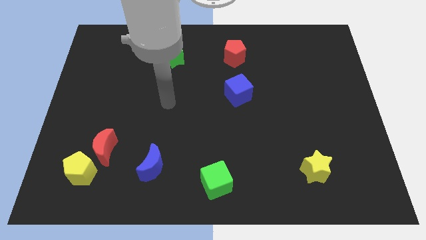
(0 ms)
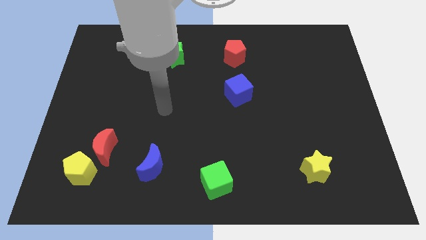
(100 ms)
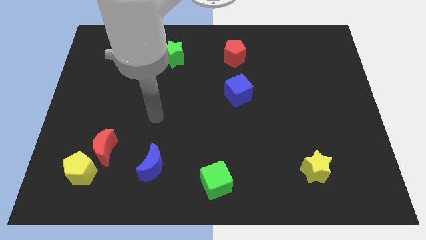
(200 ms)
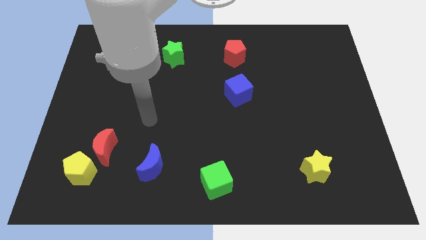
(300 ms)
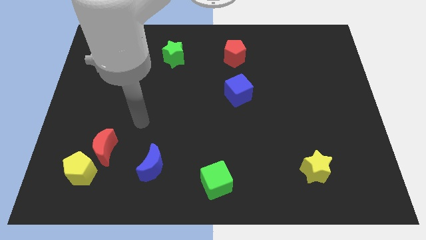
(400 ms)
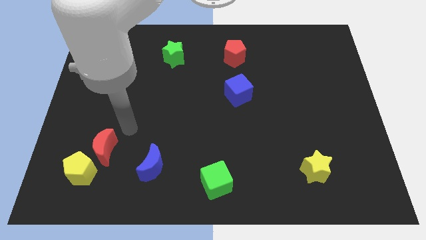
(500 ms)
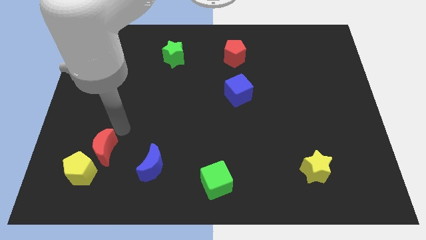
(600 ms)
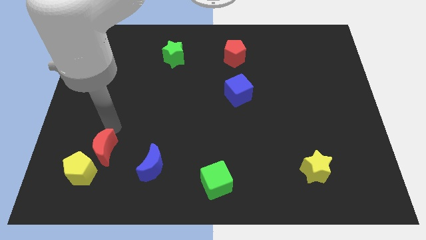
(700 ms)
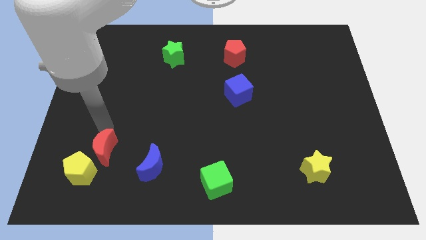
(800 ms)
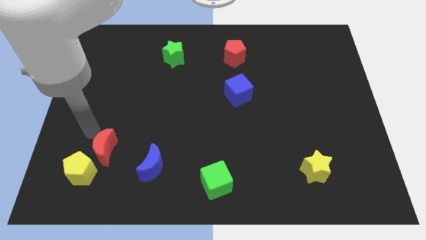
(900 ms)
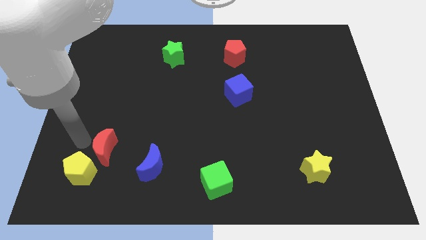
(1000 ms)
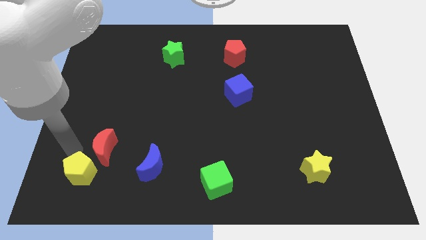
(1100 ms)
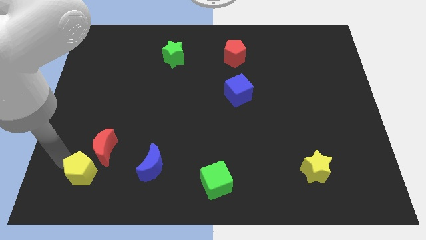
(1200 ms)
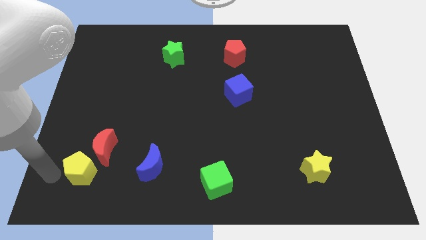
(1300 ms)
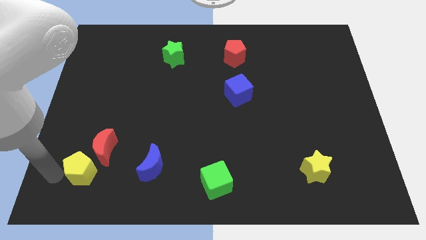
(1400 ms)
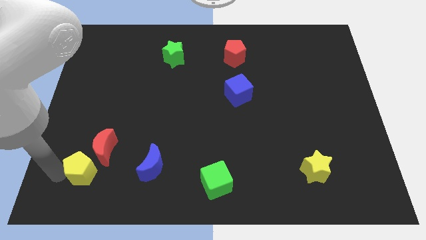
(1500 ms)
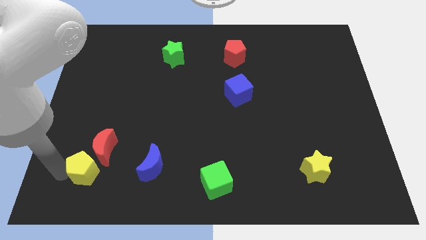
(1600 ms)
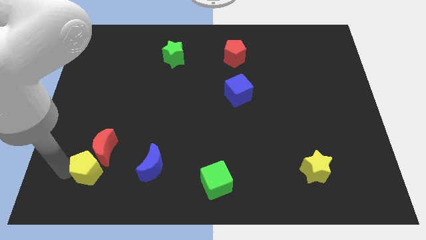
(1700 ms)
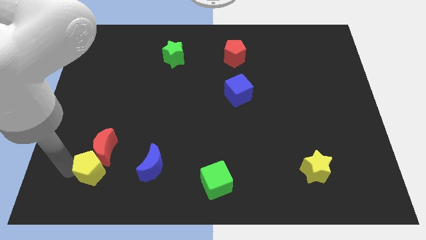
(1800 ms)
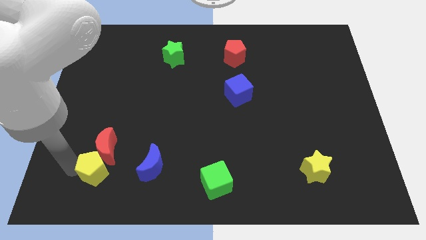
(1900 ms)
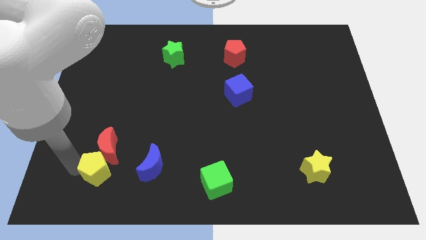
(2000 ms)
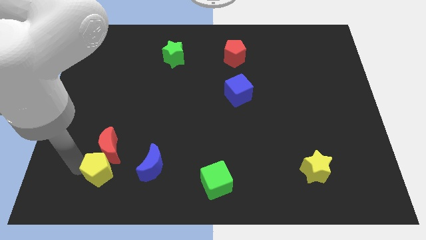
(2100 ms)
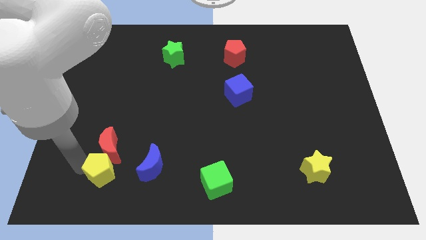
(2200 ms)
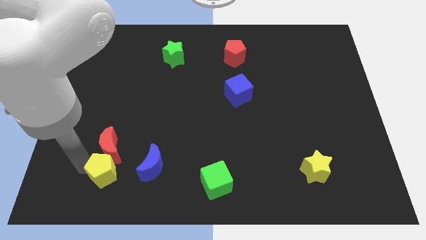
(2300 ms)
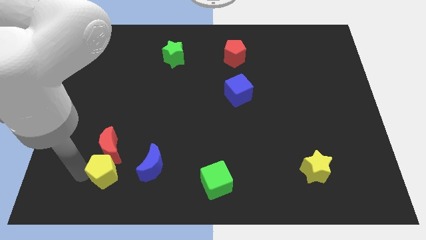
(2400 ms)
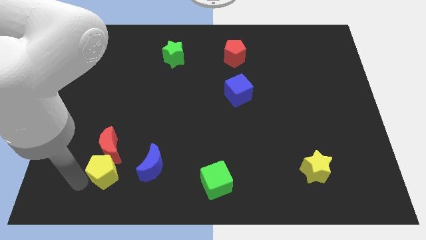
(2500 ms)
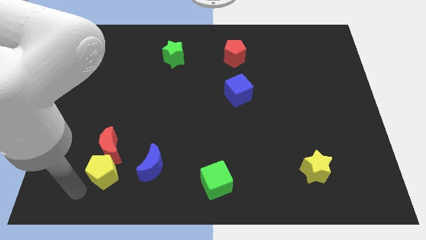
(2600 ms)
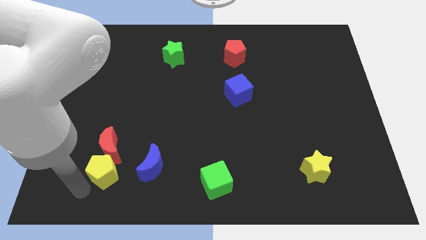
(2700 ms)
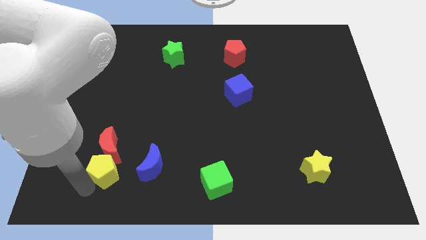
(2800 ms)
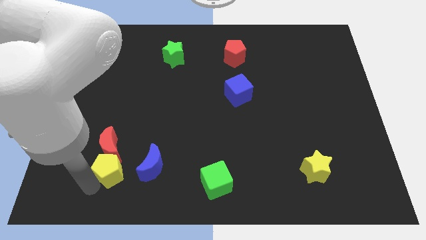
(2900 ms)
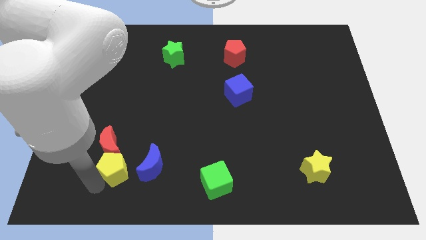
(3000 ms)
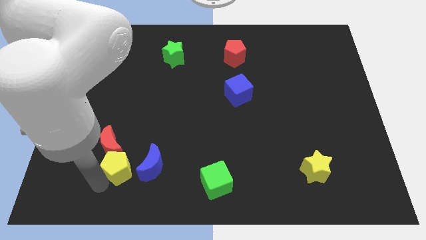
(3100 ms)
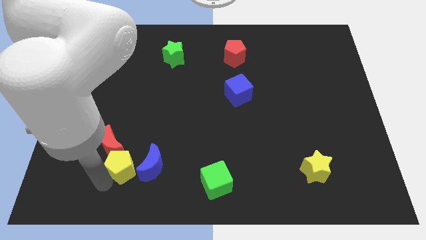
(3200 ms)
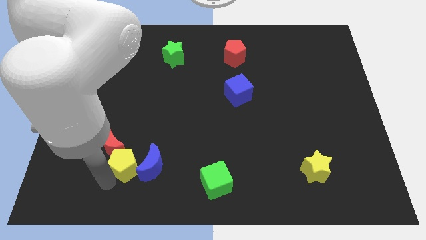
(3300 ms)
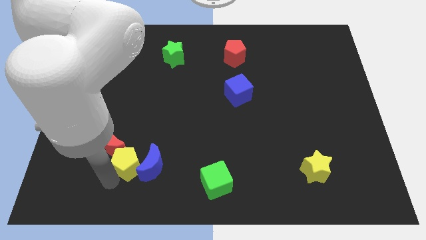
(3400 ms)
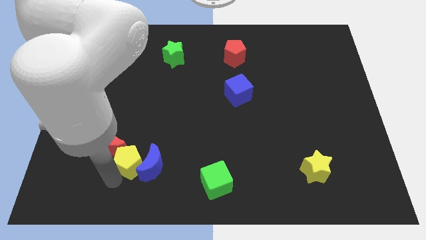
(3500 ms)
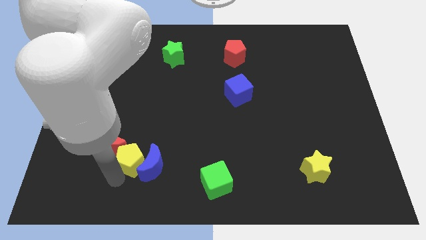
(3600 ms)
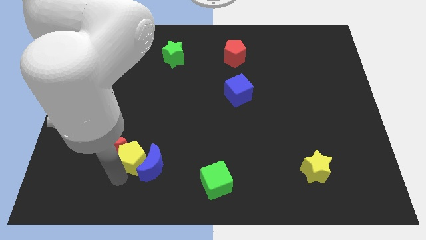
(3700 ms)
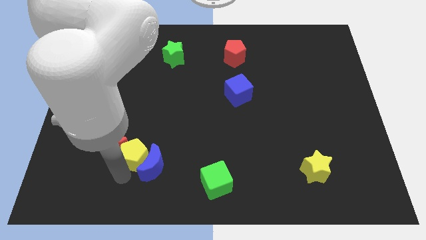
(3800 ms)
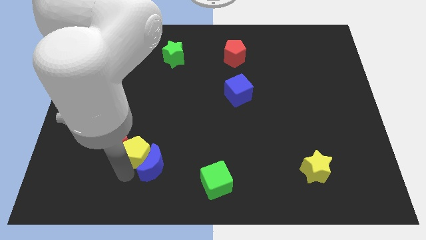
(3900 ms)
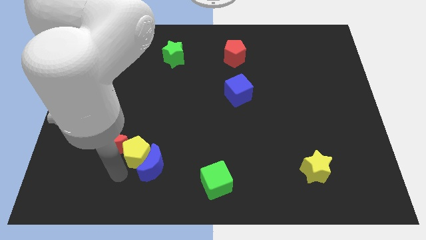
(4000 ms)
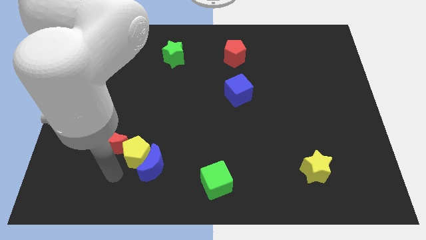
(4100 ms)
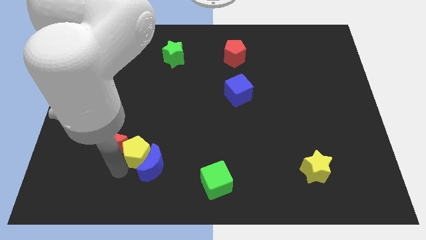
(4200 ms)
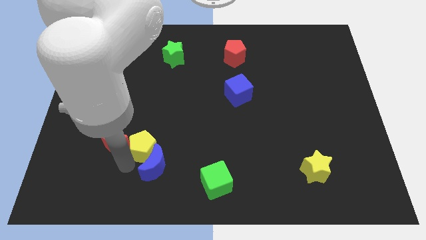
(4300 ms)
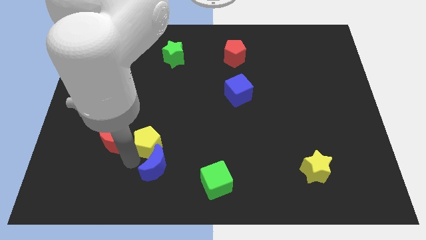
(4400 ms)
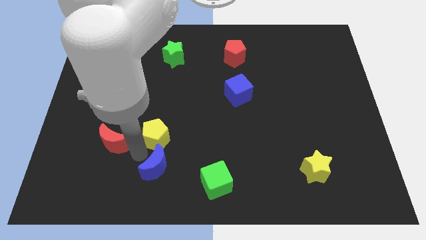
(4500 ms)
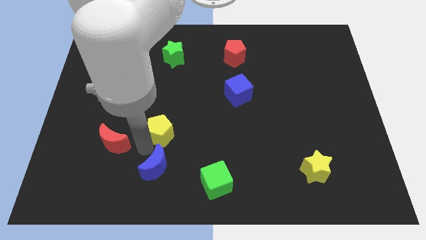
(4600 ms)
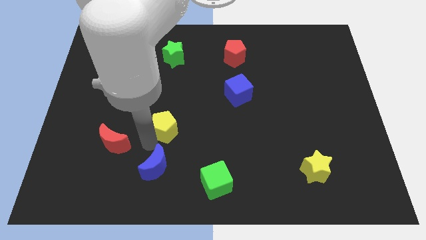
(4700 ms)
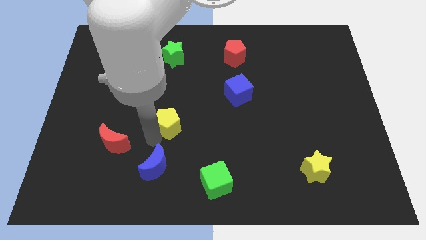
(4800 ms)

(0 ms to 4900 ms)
put the yellow pentagon to the middle

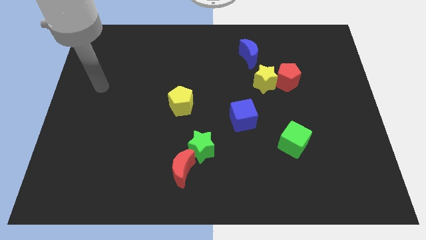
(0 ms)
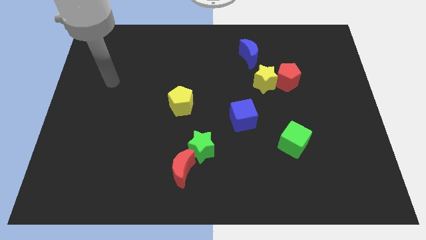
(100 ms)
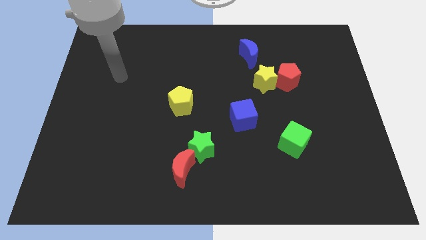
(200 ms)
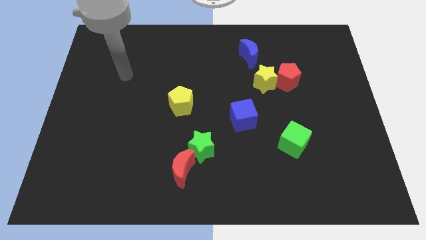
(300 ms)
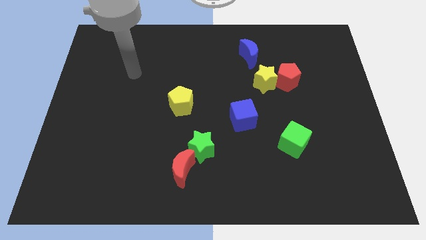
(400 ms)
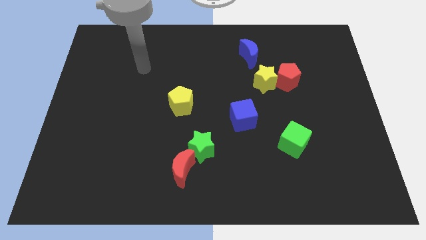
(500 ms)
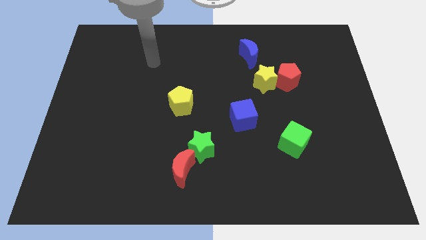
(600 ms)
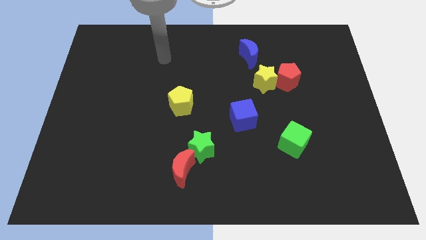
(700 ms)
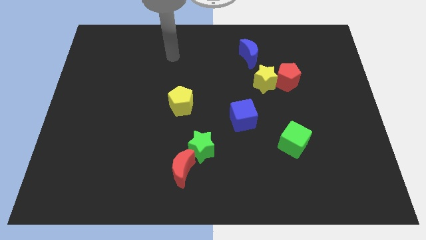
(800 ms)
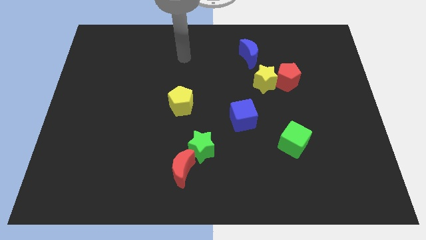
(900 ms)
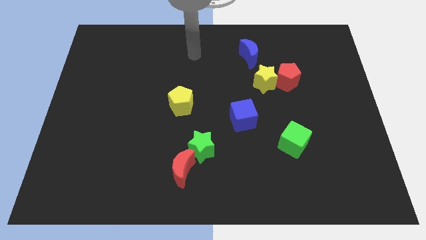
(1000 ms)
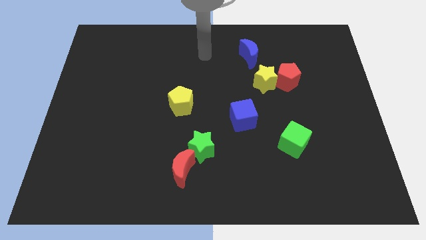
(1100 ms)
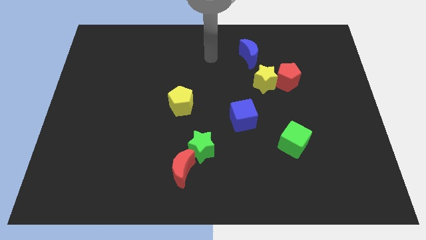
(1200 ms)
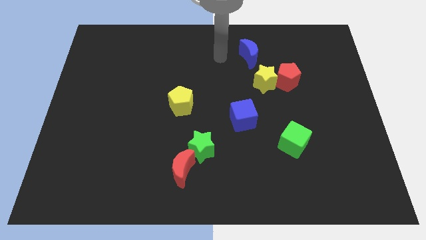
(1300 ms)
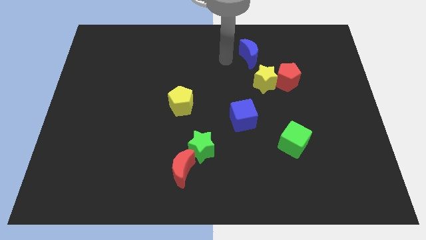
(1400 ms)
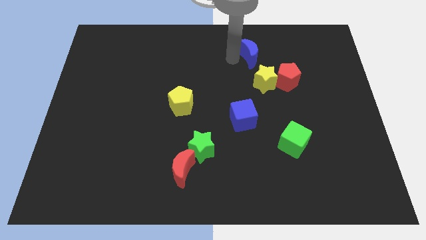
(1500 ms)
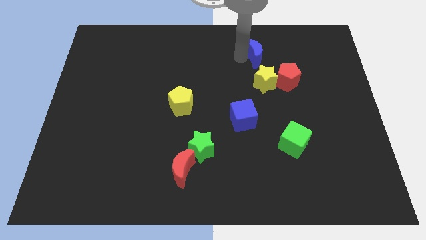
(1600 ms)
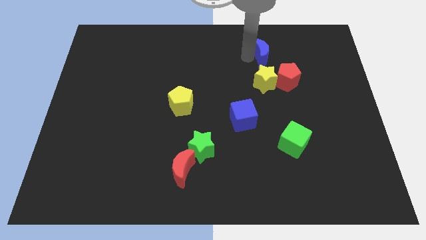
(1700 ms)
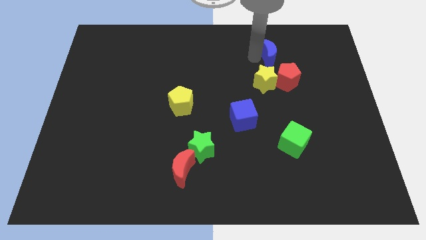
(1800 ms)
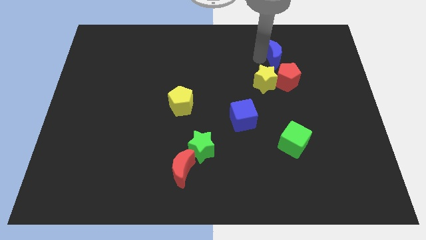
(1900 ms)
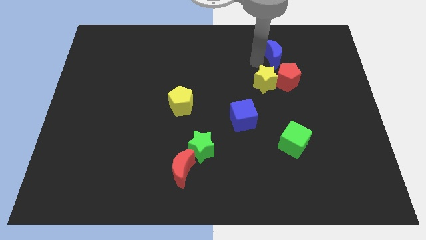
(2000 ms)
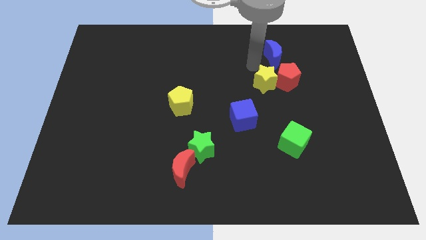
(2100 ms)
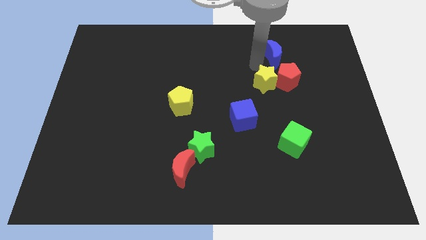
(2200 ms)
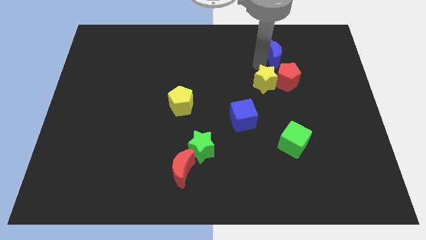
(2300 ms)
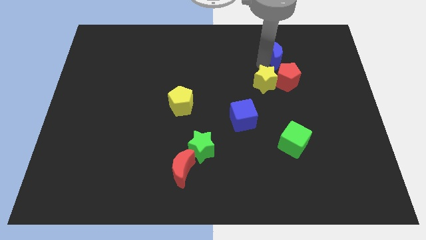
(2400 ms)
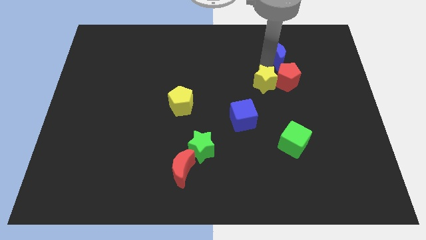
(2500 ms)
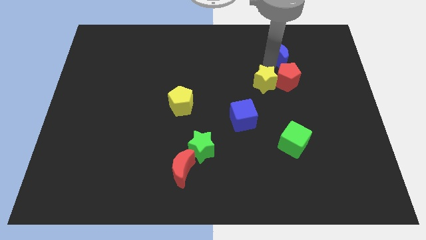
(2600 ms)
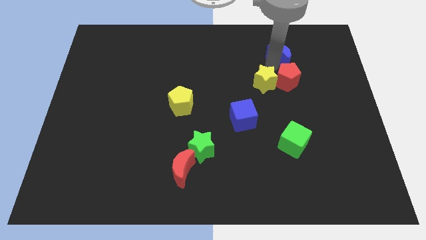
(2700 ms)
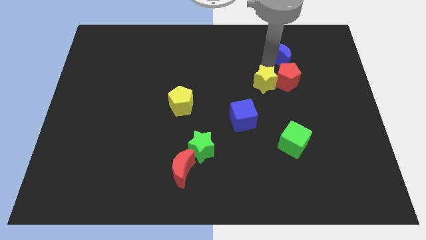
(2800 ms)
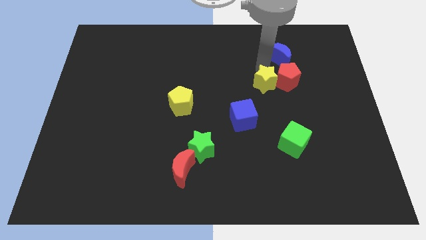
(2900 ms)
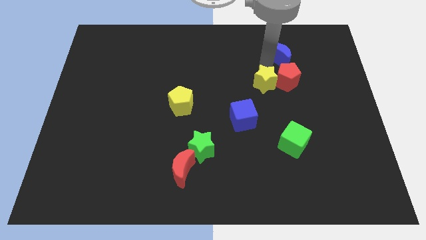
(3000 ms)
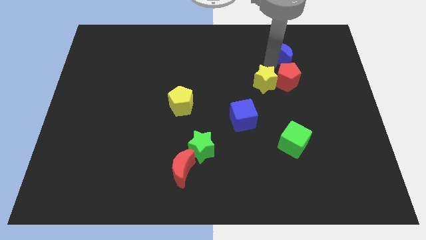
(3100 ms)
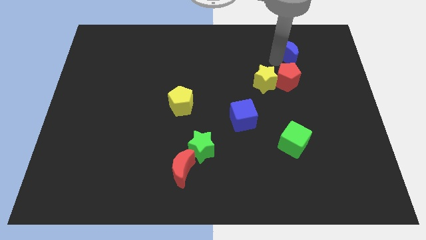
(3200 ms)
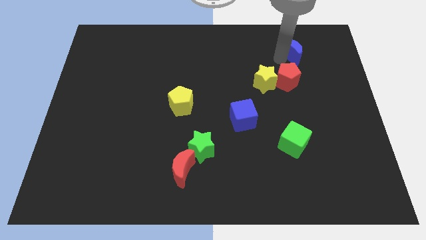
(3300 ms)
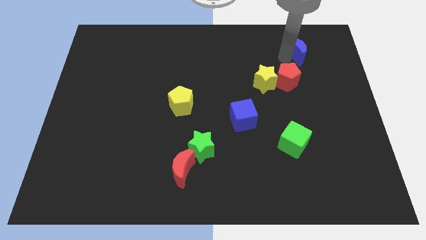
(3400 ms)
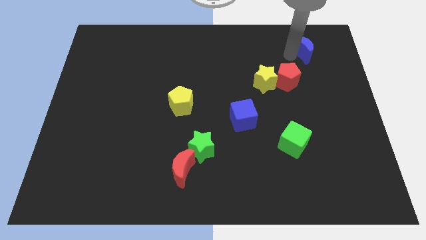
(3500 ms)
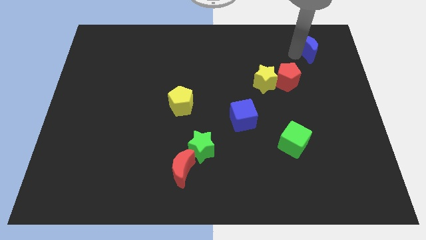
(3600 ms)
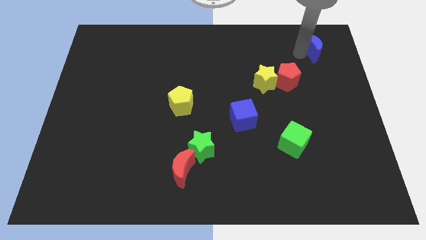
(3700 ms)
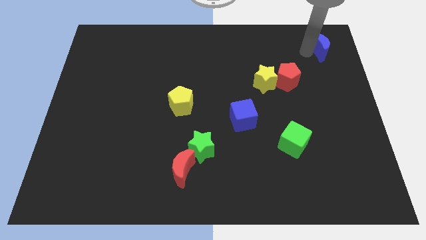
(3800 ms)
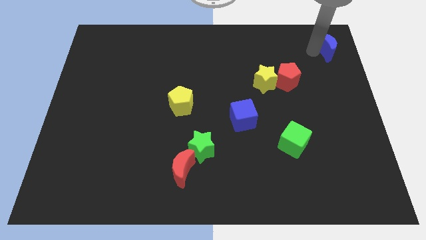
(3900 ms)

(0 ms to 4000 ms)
move the blue moon to the top right corner
